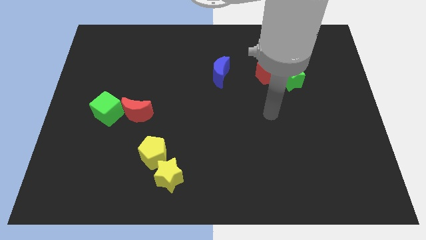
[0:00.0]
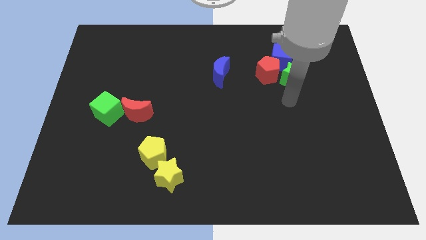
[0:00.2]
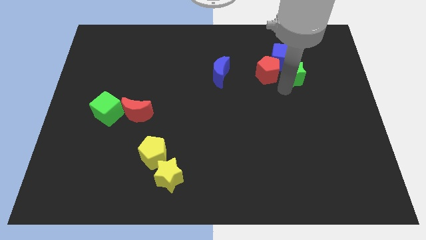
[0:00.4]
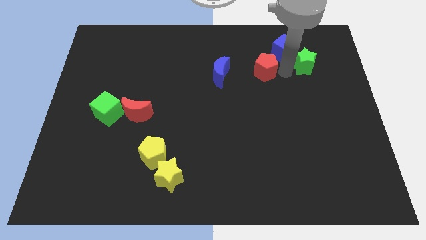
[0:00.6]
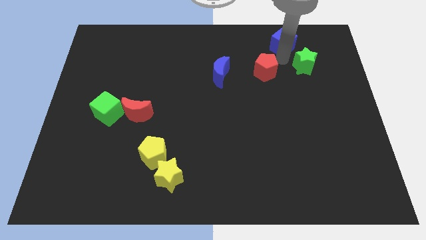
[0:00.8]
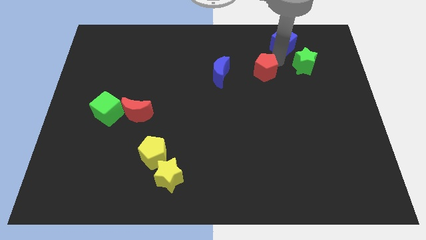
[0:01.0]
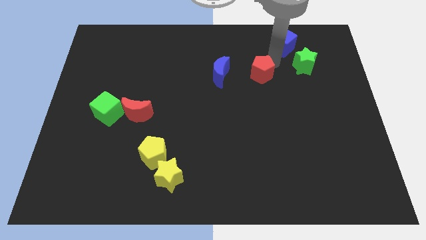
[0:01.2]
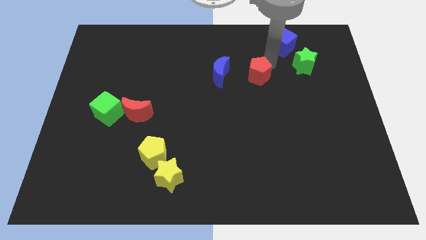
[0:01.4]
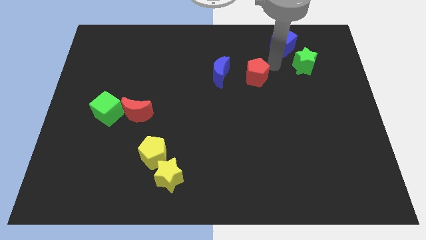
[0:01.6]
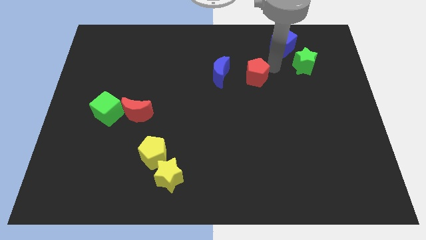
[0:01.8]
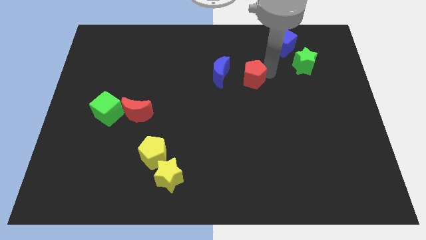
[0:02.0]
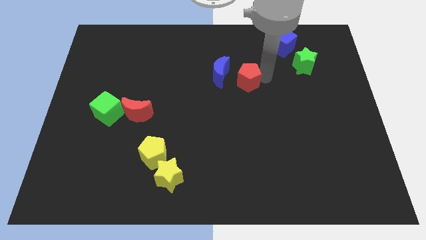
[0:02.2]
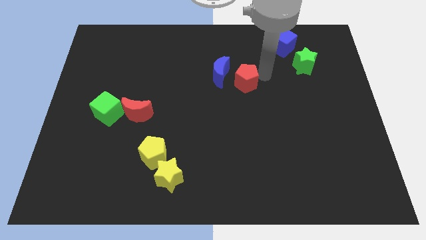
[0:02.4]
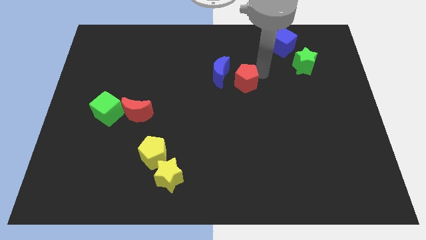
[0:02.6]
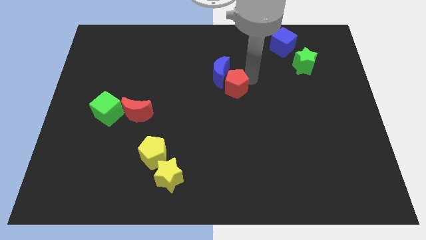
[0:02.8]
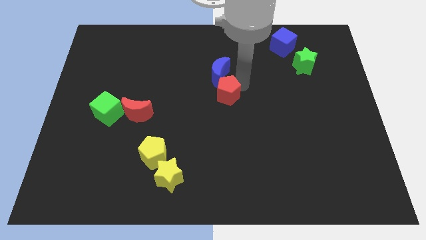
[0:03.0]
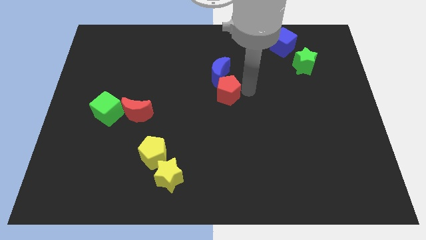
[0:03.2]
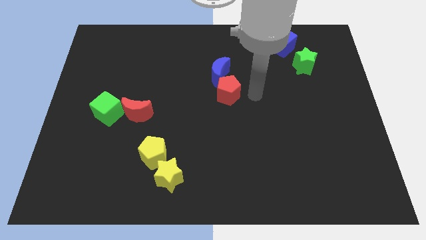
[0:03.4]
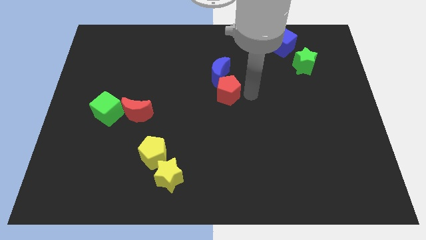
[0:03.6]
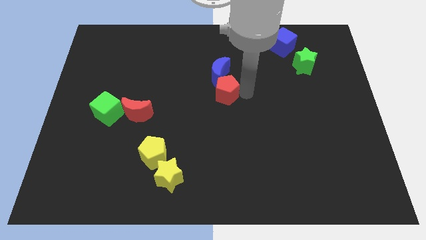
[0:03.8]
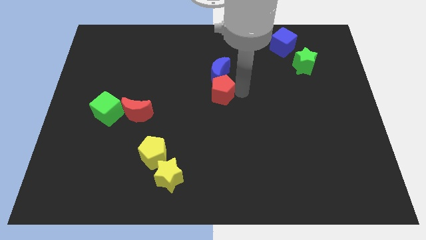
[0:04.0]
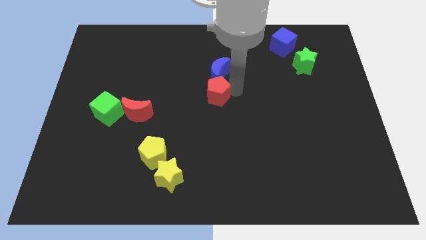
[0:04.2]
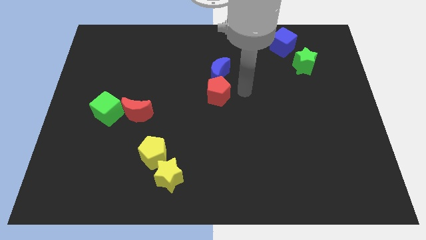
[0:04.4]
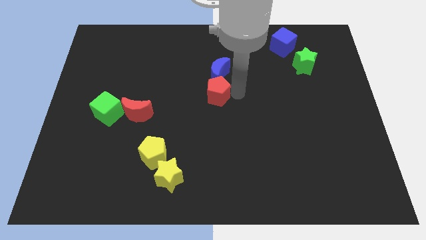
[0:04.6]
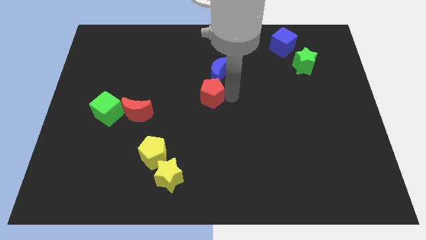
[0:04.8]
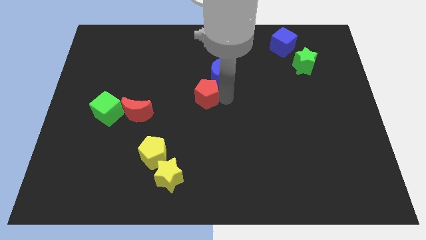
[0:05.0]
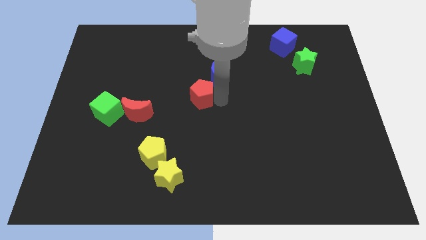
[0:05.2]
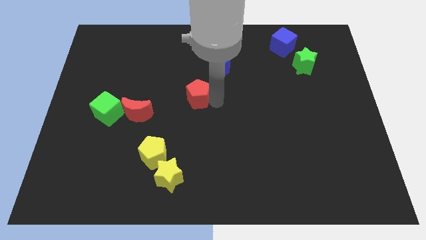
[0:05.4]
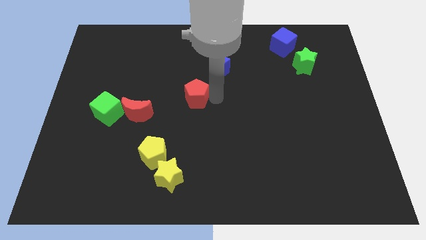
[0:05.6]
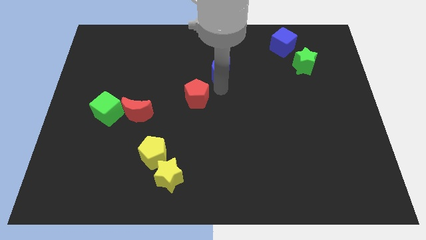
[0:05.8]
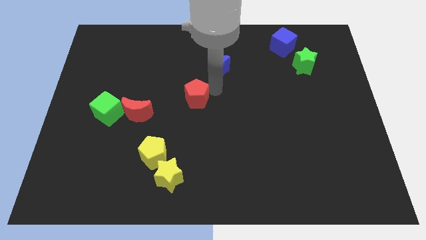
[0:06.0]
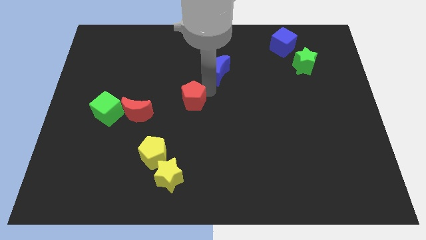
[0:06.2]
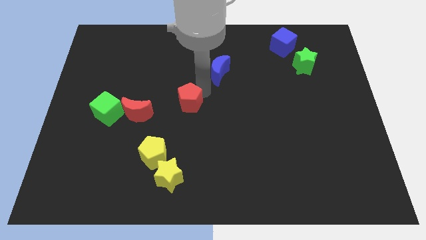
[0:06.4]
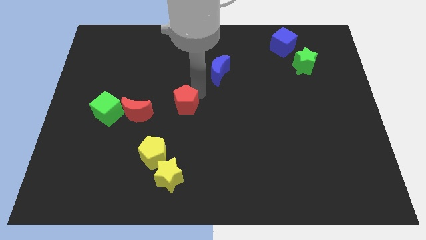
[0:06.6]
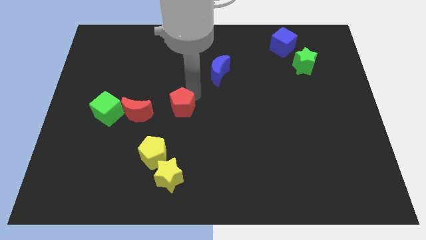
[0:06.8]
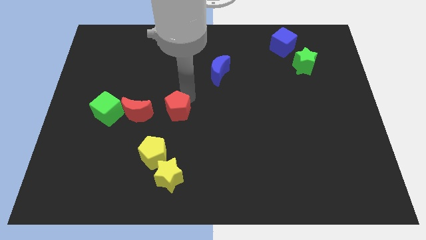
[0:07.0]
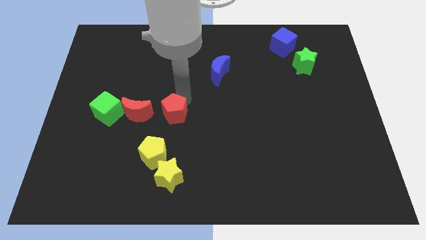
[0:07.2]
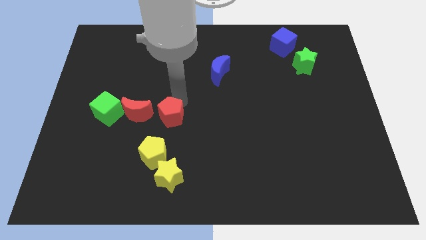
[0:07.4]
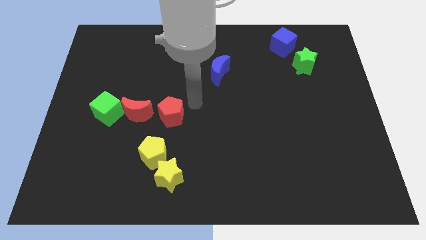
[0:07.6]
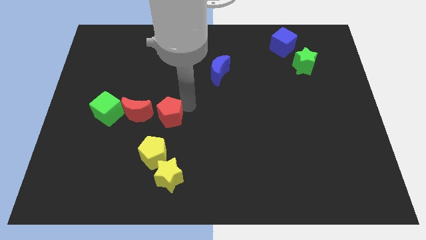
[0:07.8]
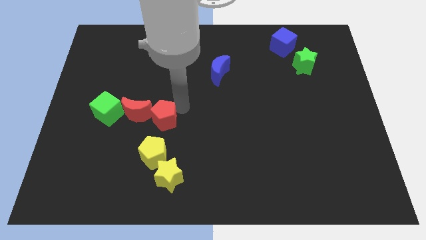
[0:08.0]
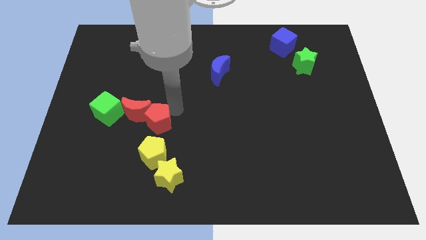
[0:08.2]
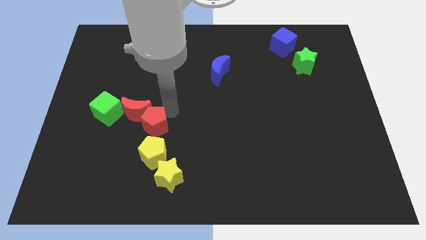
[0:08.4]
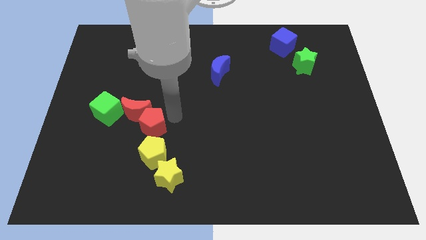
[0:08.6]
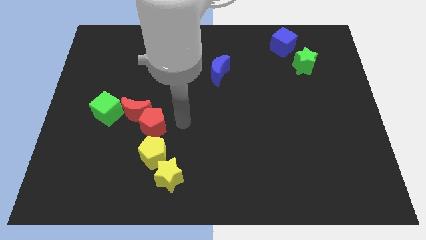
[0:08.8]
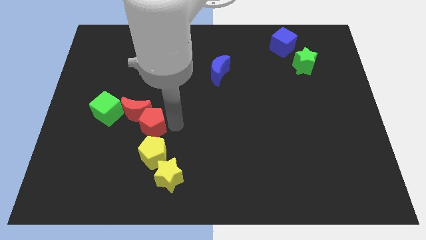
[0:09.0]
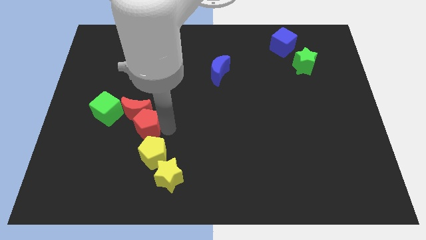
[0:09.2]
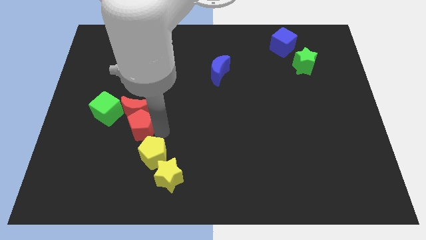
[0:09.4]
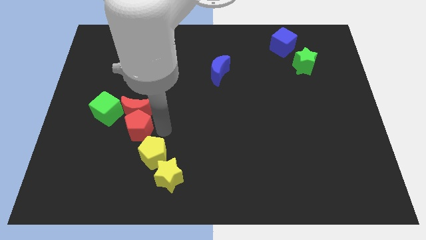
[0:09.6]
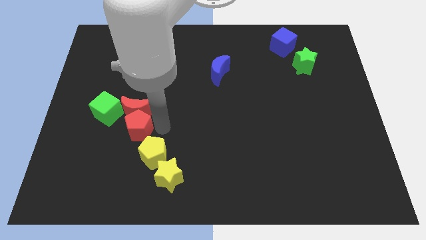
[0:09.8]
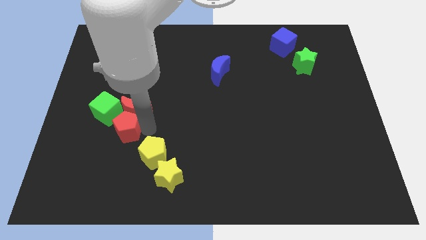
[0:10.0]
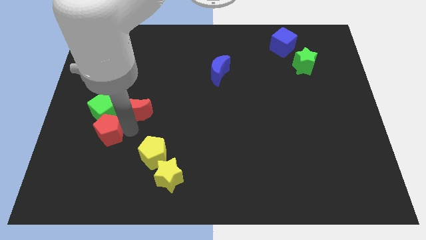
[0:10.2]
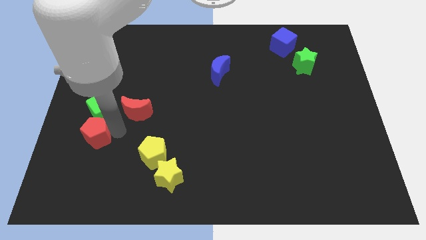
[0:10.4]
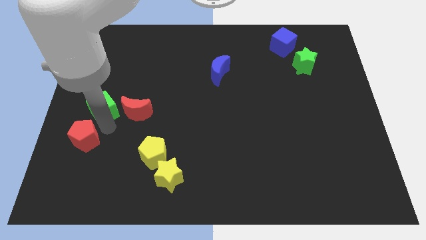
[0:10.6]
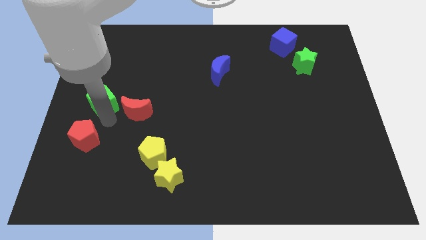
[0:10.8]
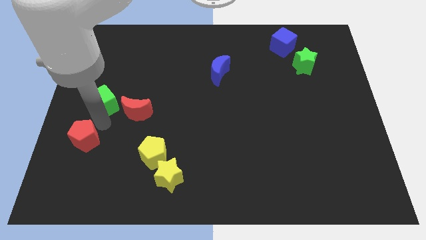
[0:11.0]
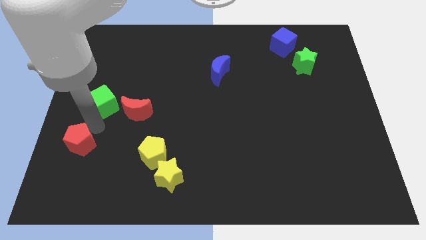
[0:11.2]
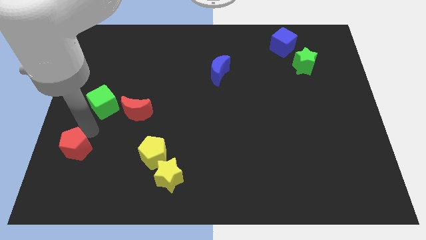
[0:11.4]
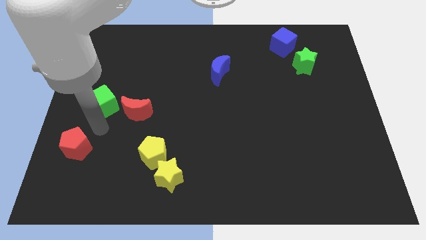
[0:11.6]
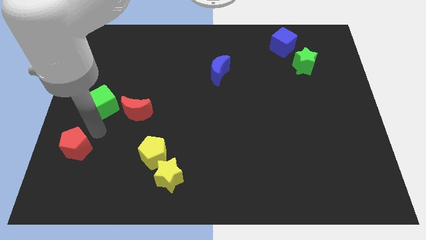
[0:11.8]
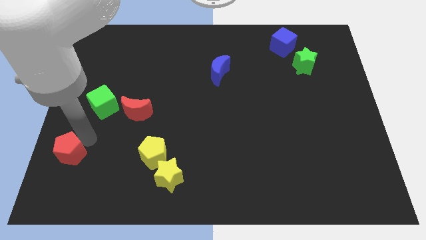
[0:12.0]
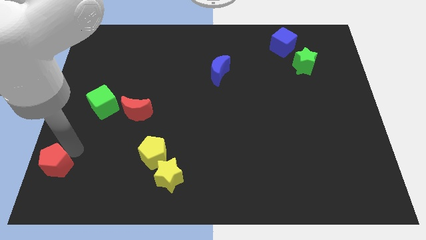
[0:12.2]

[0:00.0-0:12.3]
move the red pentagon to the bottom left corner
